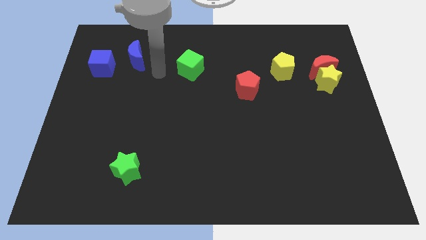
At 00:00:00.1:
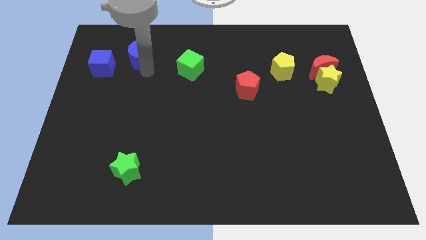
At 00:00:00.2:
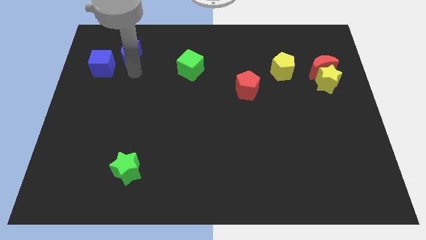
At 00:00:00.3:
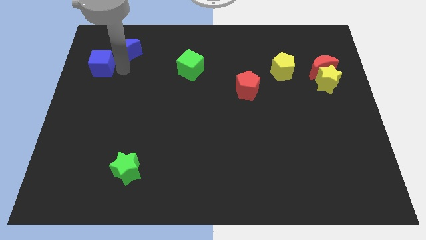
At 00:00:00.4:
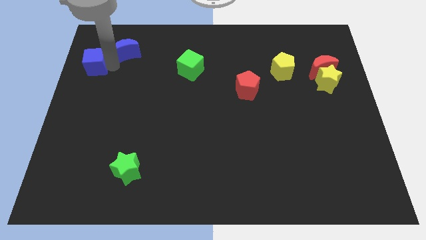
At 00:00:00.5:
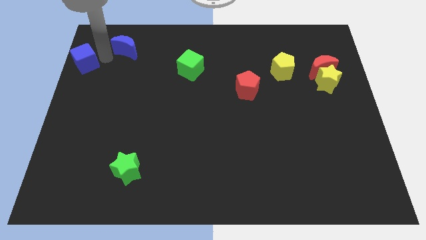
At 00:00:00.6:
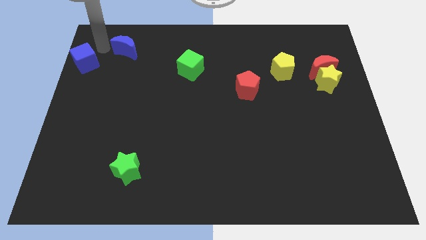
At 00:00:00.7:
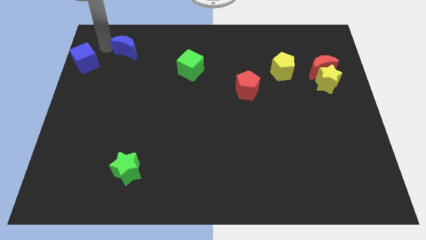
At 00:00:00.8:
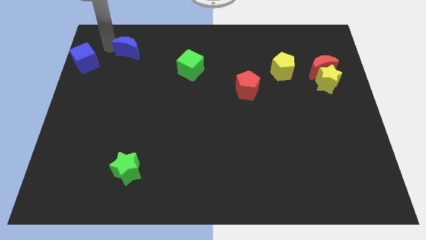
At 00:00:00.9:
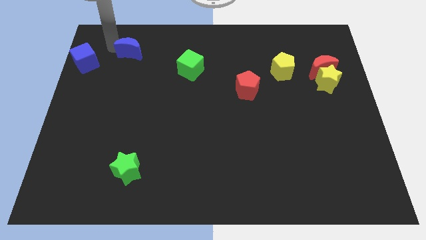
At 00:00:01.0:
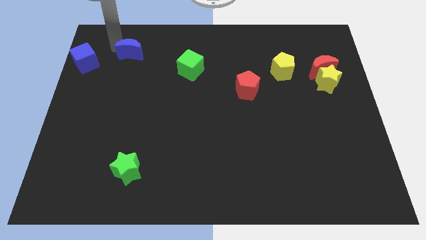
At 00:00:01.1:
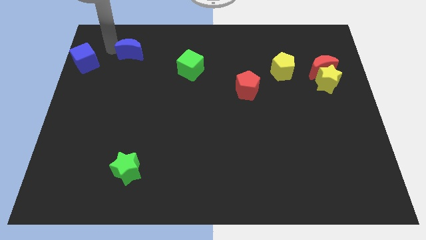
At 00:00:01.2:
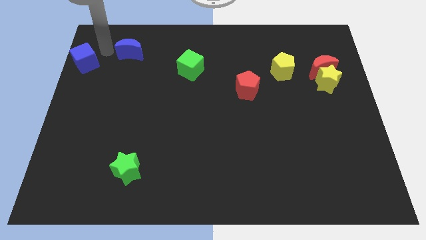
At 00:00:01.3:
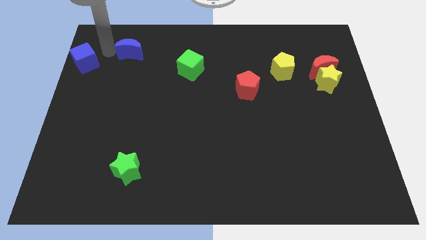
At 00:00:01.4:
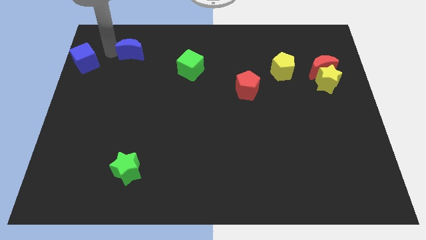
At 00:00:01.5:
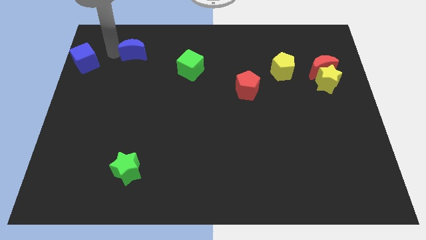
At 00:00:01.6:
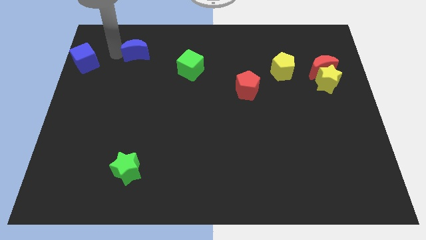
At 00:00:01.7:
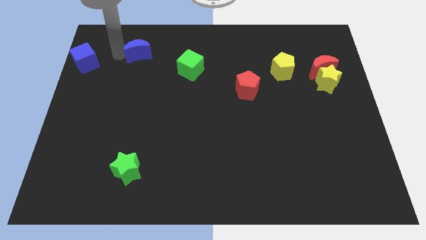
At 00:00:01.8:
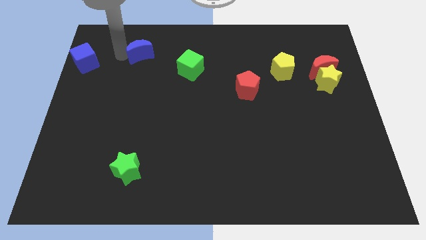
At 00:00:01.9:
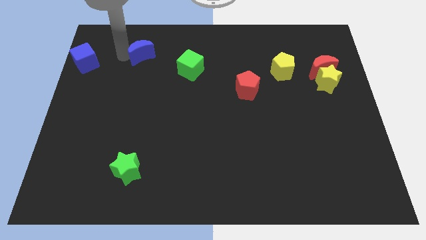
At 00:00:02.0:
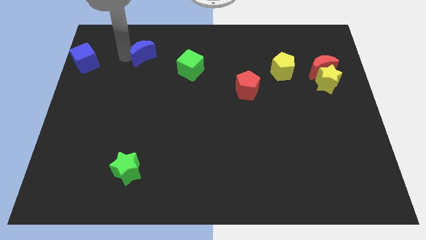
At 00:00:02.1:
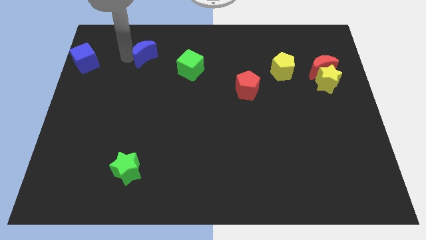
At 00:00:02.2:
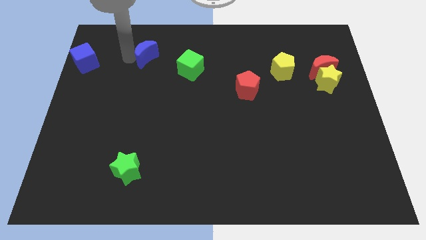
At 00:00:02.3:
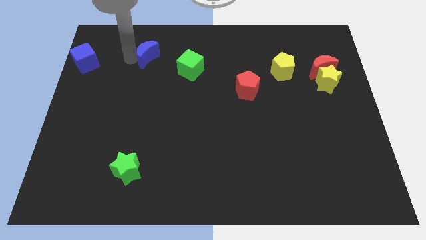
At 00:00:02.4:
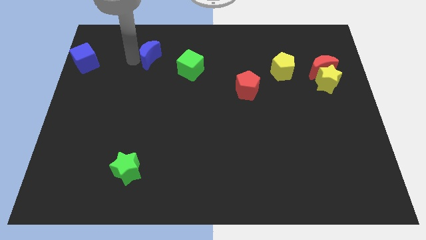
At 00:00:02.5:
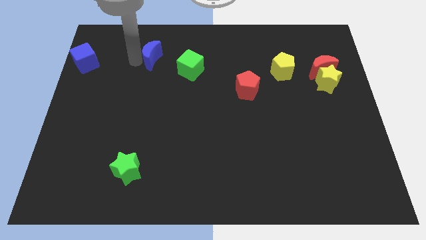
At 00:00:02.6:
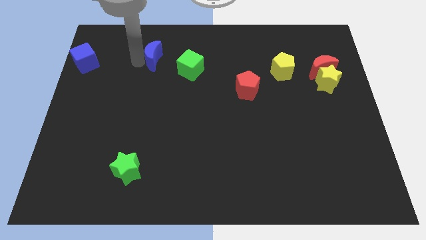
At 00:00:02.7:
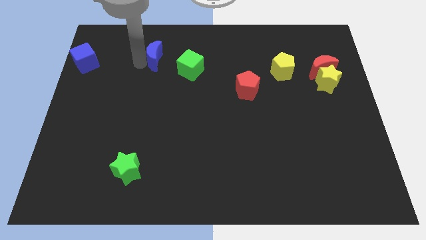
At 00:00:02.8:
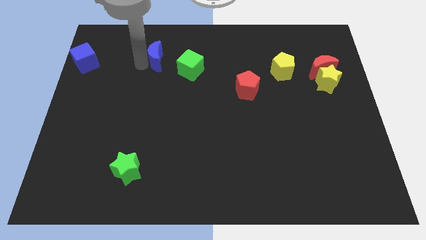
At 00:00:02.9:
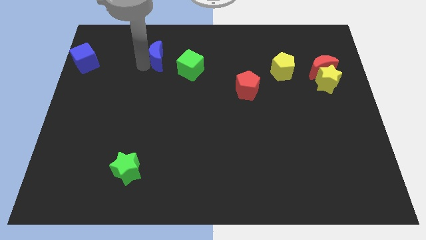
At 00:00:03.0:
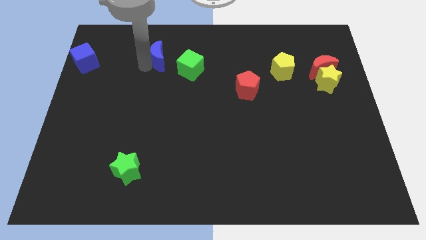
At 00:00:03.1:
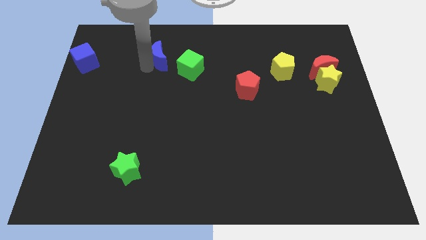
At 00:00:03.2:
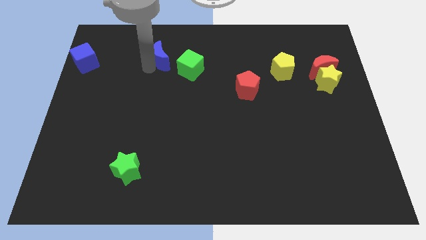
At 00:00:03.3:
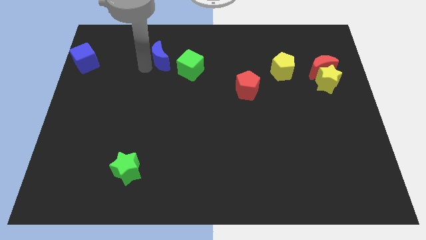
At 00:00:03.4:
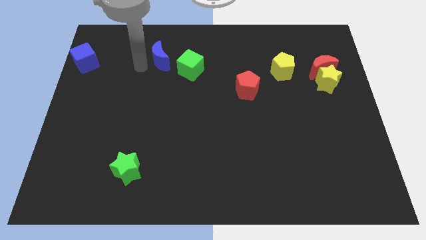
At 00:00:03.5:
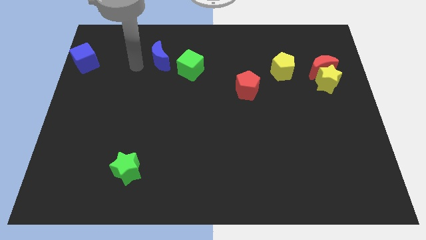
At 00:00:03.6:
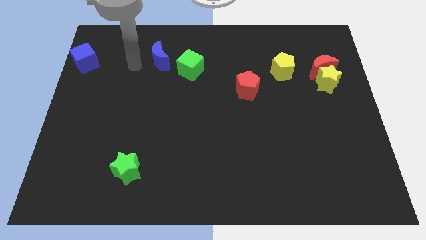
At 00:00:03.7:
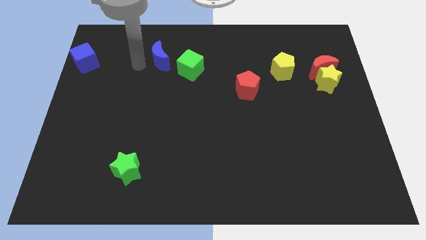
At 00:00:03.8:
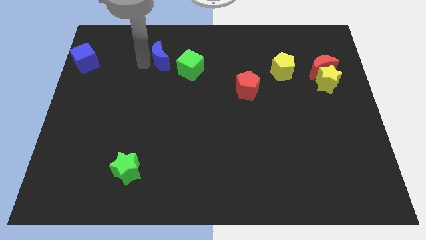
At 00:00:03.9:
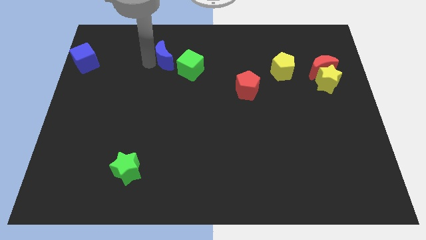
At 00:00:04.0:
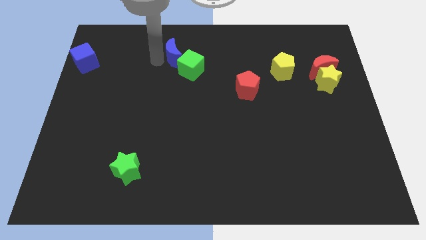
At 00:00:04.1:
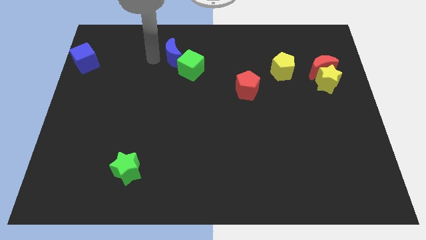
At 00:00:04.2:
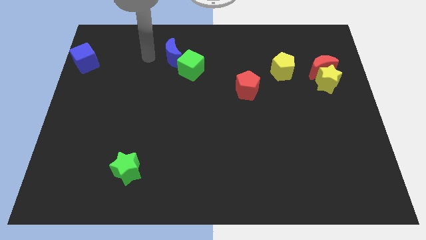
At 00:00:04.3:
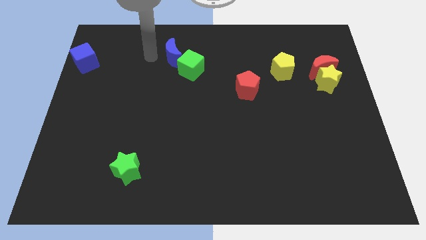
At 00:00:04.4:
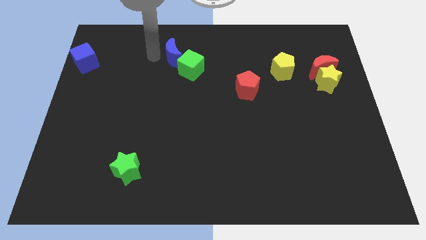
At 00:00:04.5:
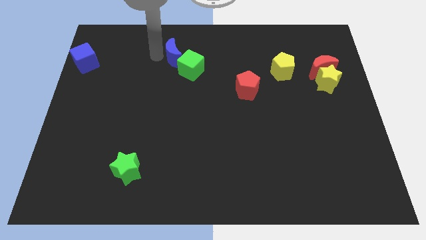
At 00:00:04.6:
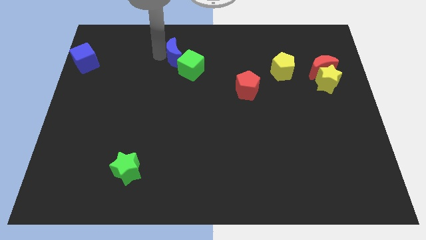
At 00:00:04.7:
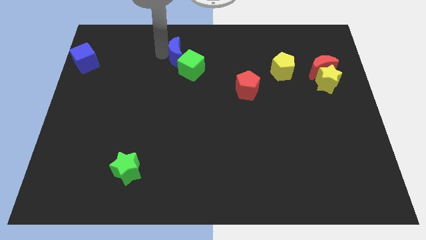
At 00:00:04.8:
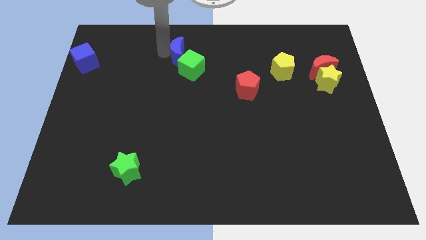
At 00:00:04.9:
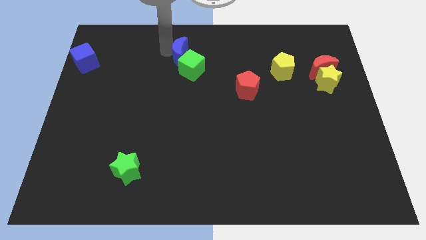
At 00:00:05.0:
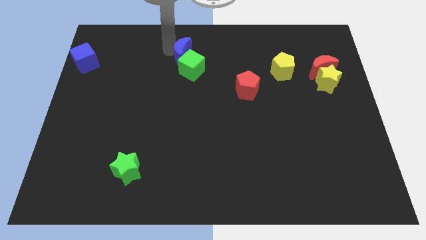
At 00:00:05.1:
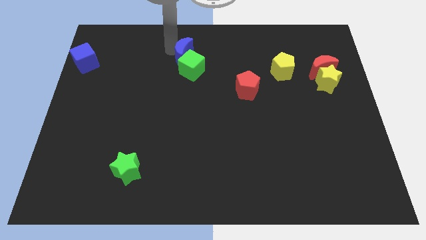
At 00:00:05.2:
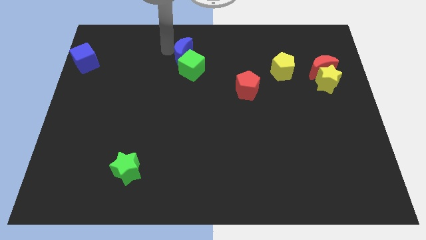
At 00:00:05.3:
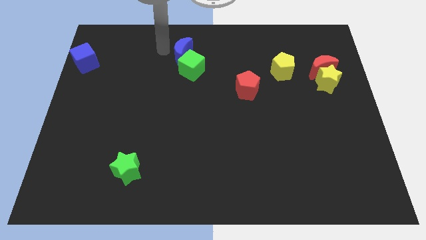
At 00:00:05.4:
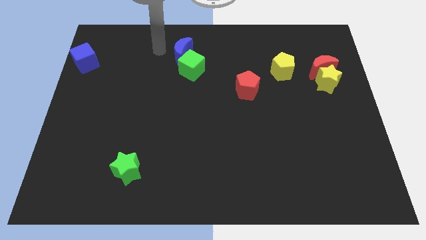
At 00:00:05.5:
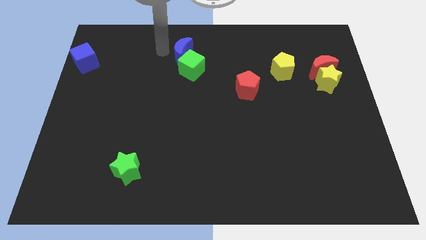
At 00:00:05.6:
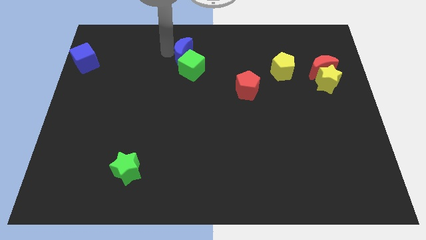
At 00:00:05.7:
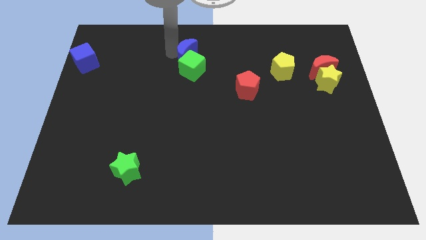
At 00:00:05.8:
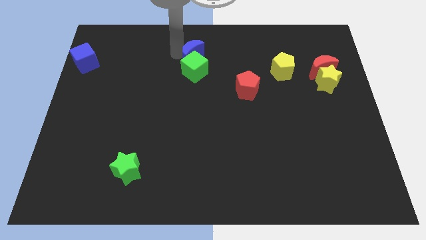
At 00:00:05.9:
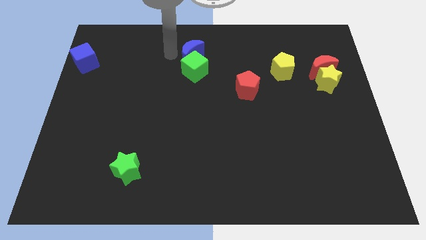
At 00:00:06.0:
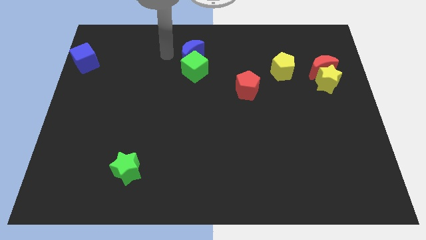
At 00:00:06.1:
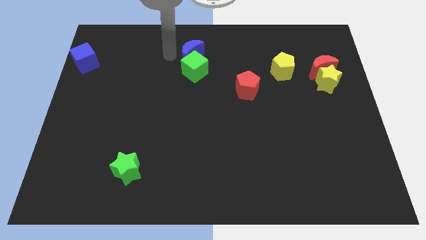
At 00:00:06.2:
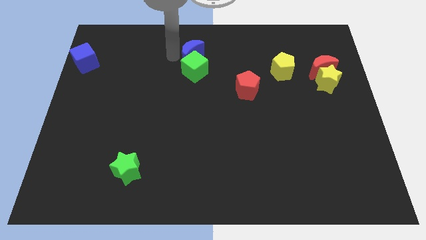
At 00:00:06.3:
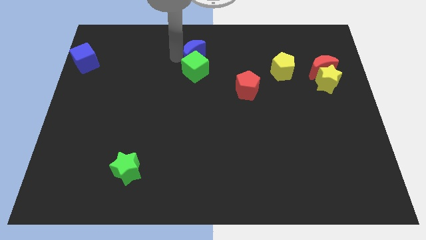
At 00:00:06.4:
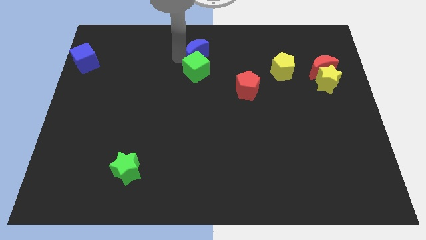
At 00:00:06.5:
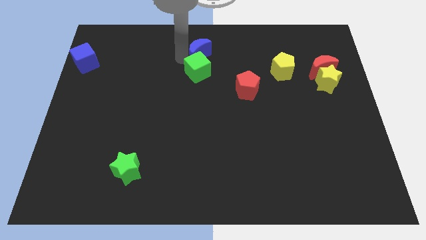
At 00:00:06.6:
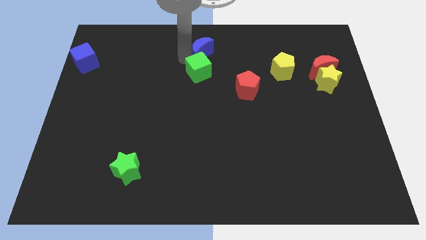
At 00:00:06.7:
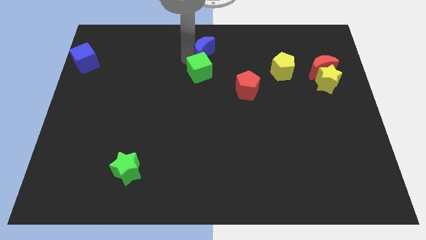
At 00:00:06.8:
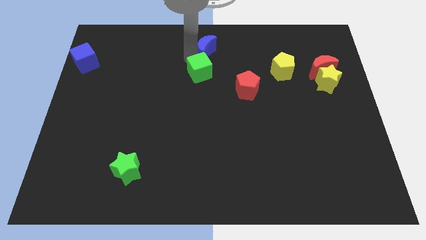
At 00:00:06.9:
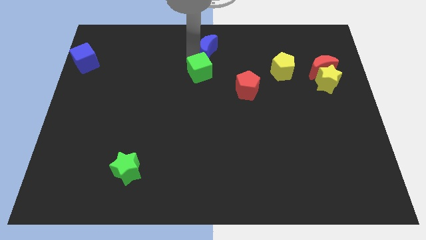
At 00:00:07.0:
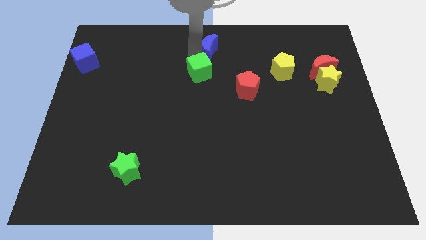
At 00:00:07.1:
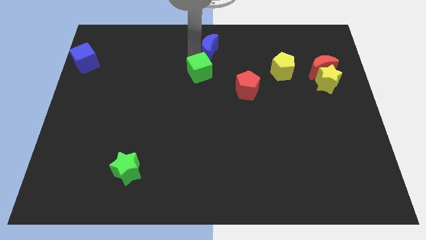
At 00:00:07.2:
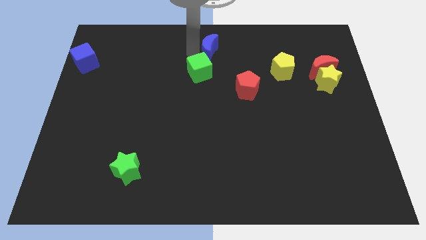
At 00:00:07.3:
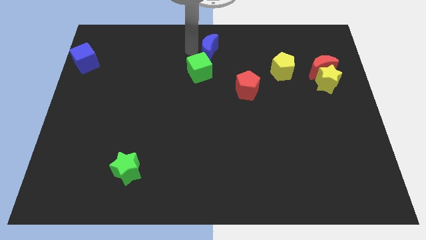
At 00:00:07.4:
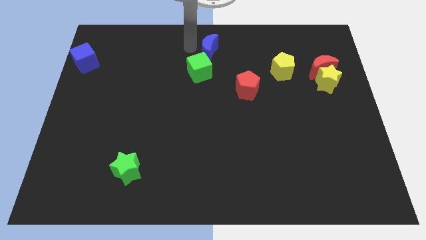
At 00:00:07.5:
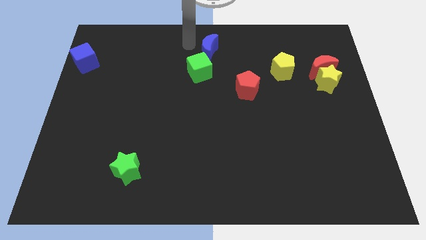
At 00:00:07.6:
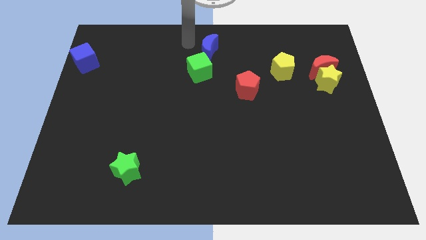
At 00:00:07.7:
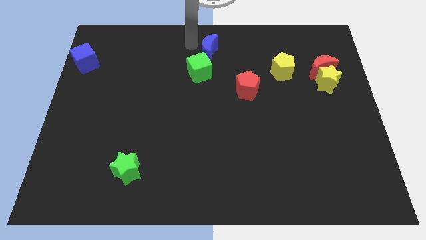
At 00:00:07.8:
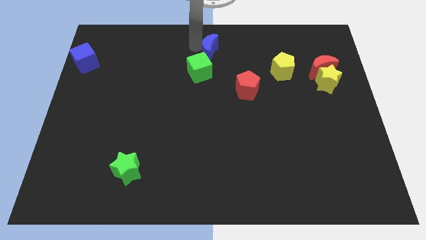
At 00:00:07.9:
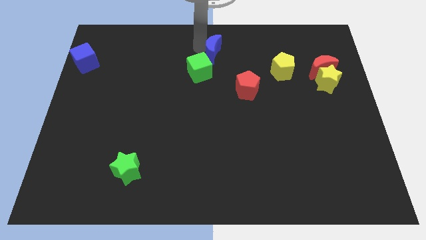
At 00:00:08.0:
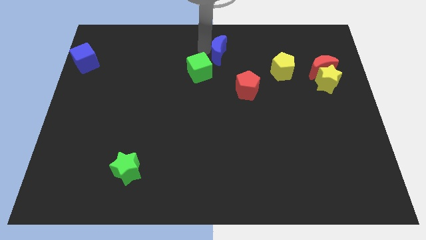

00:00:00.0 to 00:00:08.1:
move the blue moon to the right
